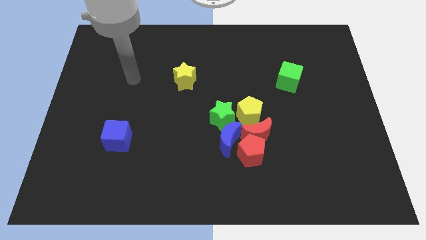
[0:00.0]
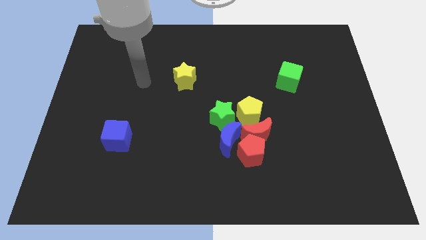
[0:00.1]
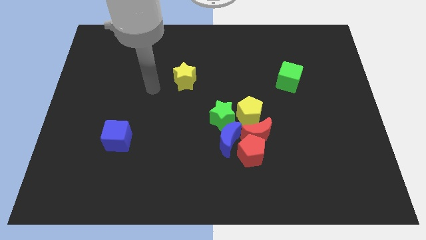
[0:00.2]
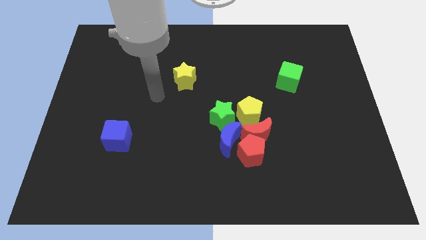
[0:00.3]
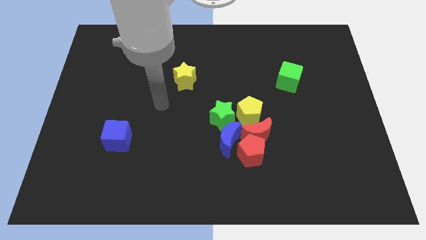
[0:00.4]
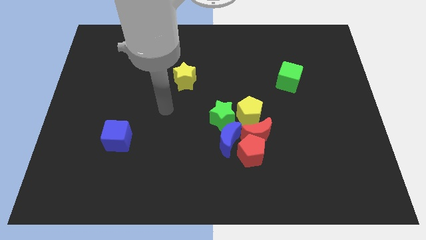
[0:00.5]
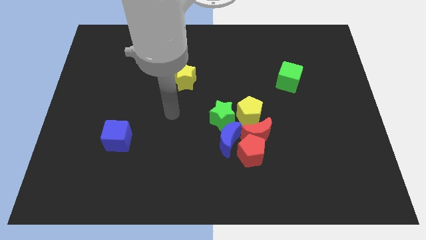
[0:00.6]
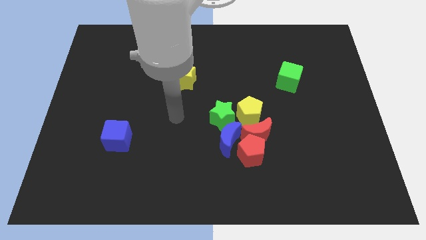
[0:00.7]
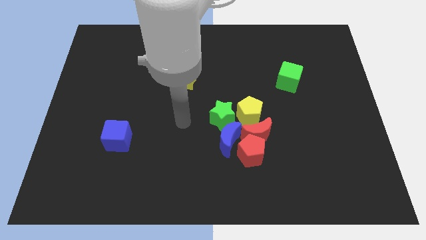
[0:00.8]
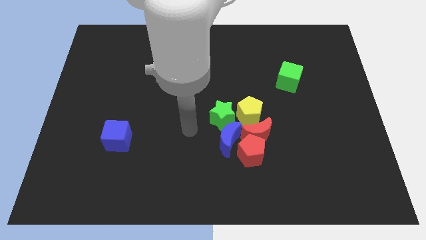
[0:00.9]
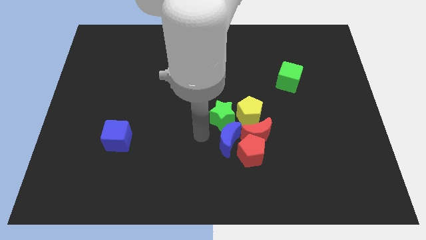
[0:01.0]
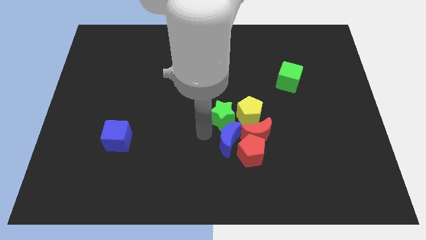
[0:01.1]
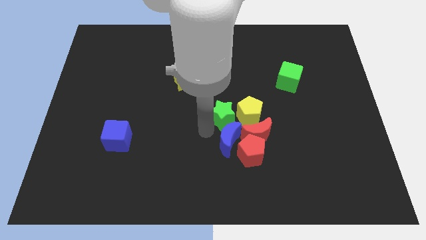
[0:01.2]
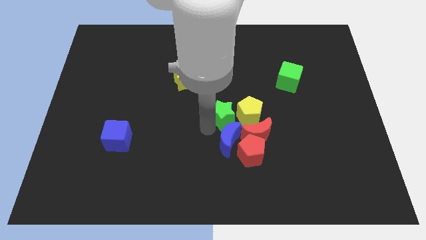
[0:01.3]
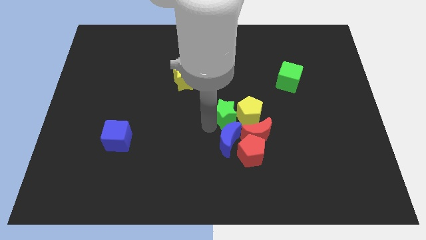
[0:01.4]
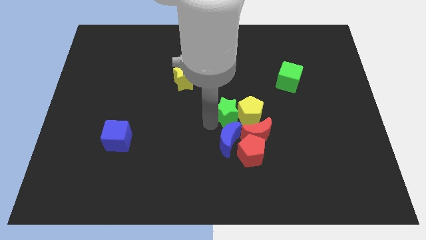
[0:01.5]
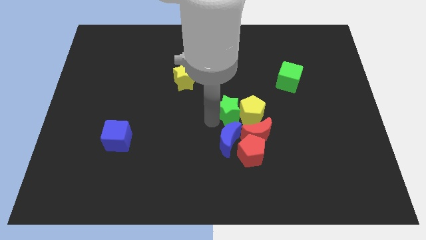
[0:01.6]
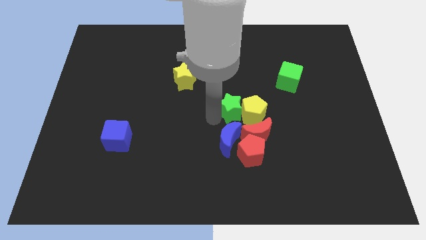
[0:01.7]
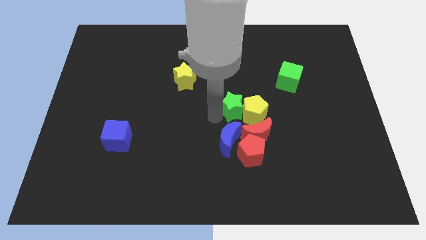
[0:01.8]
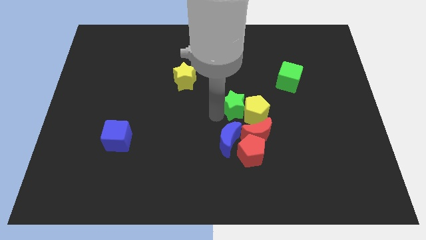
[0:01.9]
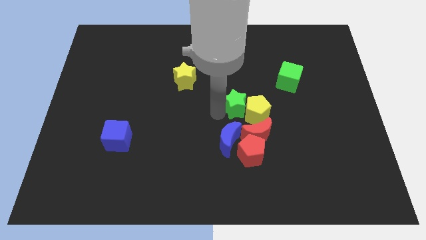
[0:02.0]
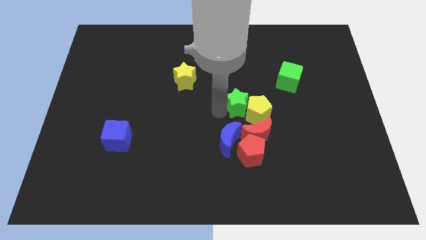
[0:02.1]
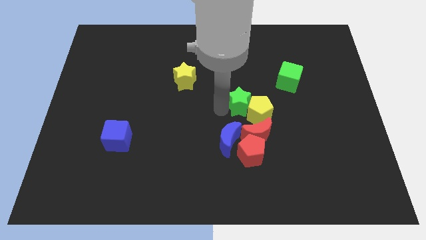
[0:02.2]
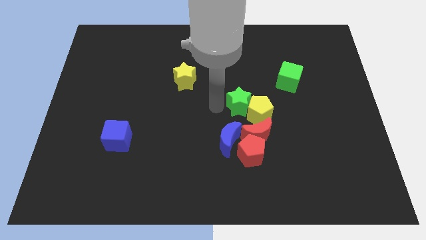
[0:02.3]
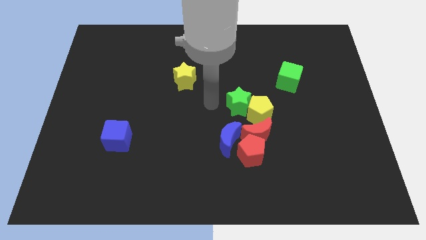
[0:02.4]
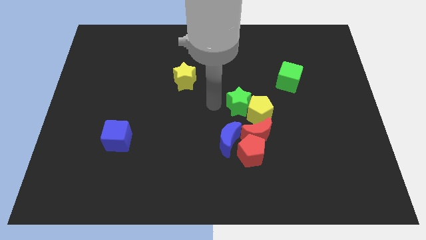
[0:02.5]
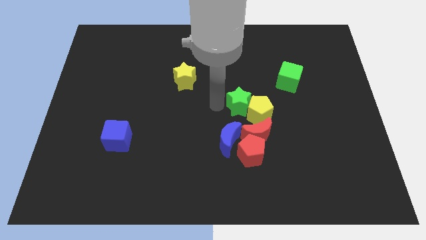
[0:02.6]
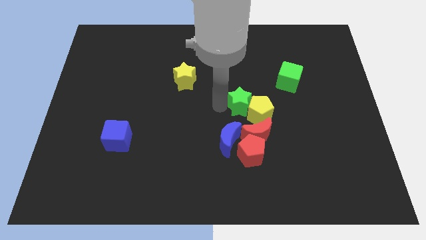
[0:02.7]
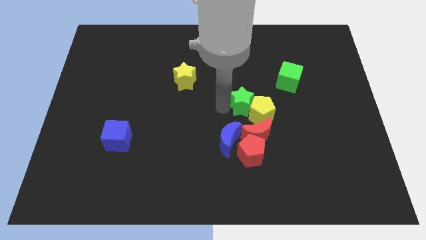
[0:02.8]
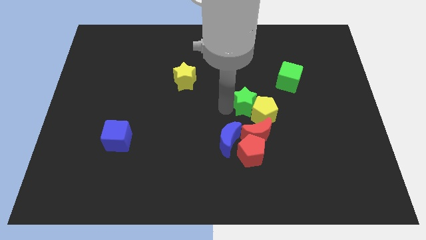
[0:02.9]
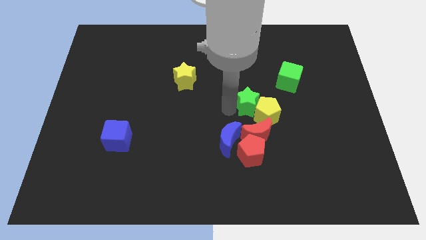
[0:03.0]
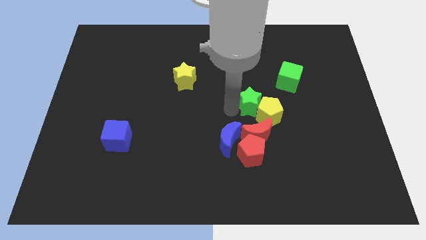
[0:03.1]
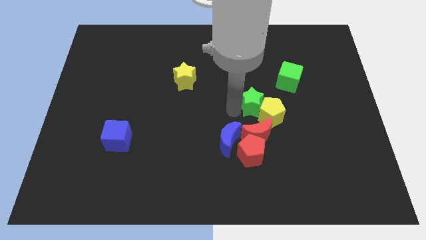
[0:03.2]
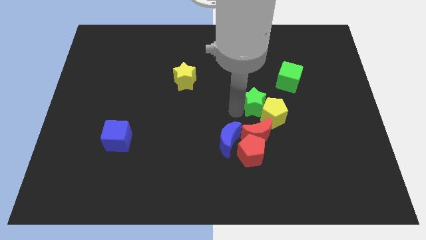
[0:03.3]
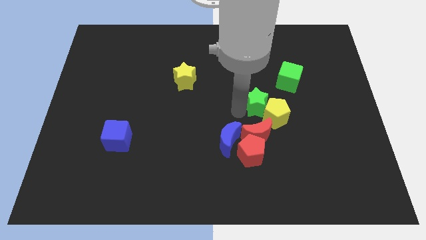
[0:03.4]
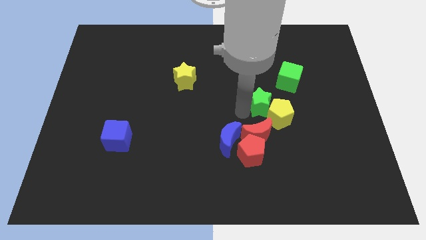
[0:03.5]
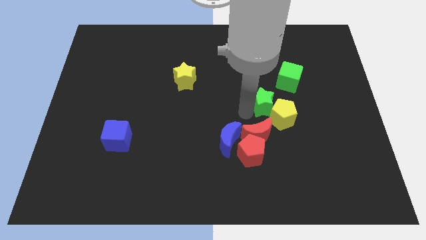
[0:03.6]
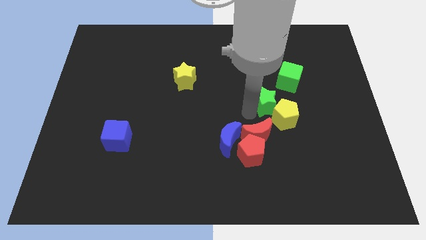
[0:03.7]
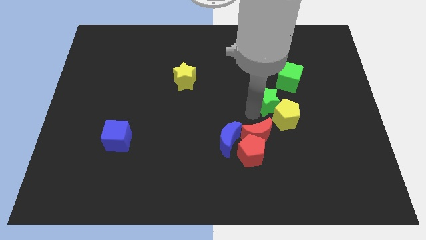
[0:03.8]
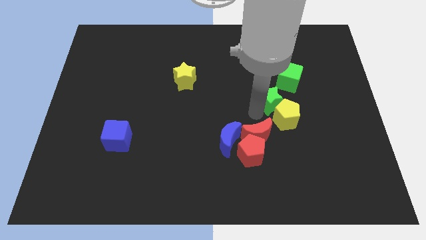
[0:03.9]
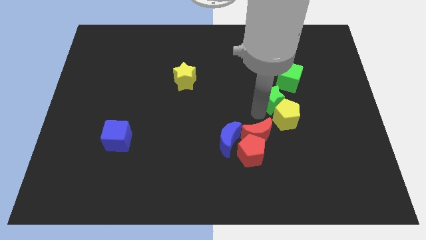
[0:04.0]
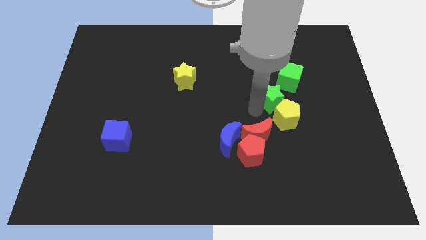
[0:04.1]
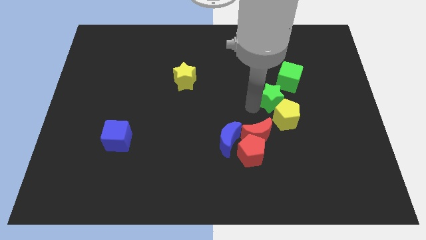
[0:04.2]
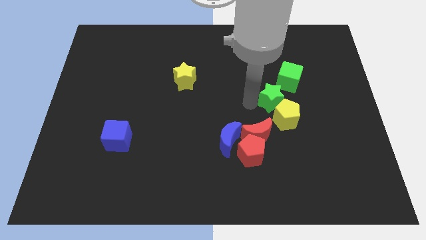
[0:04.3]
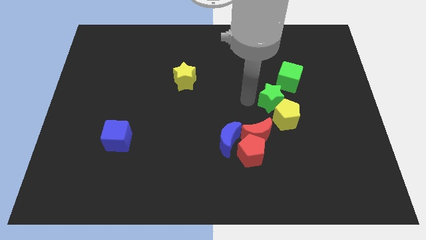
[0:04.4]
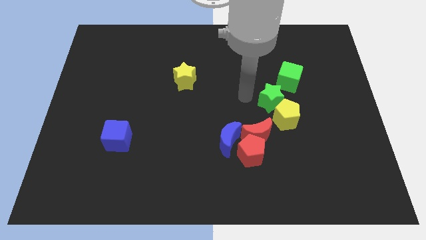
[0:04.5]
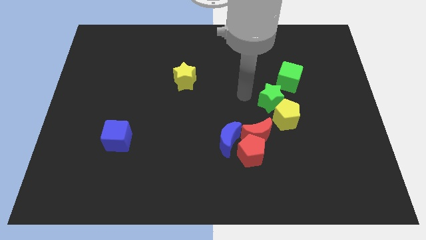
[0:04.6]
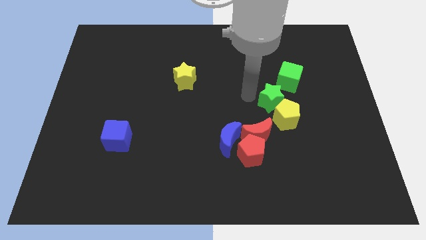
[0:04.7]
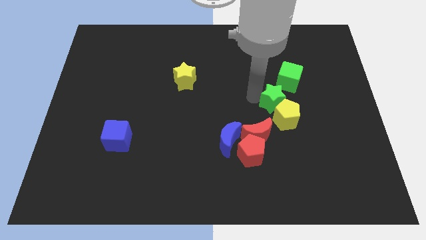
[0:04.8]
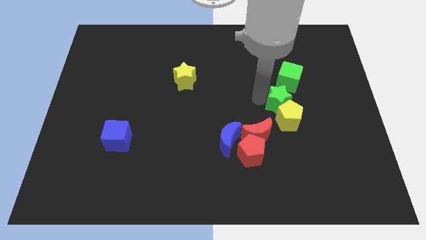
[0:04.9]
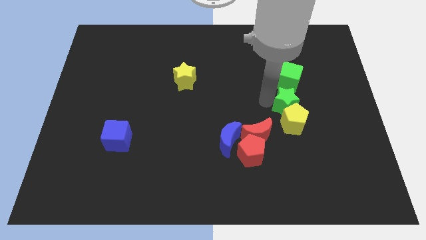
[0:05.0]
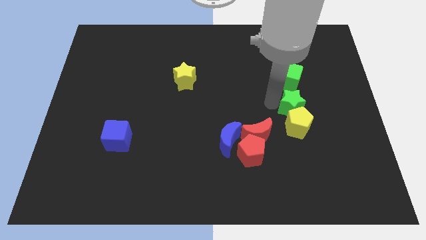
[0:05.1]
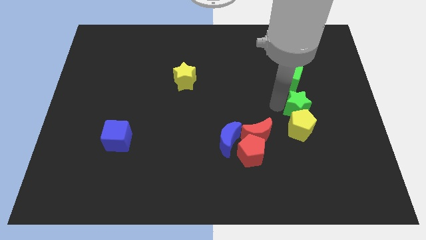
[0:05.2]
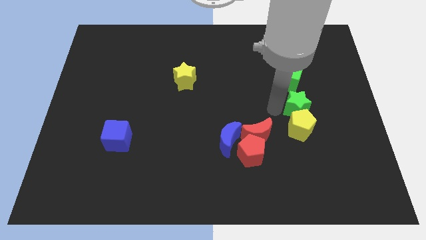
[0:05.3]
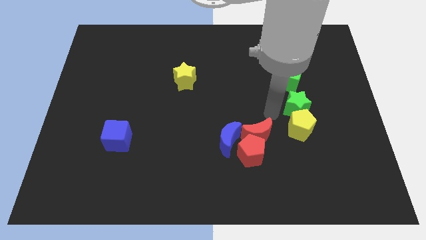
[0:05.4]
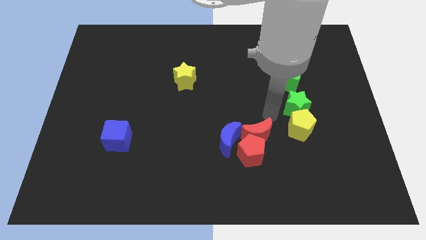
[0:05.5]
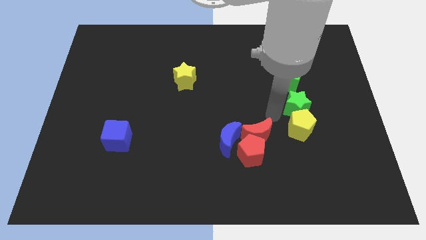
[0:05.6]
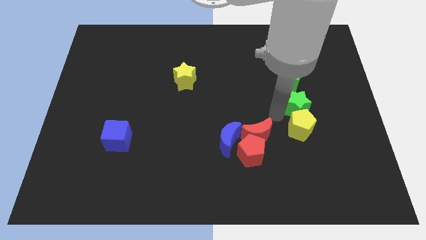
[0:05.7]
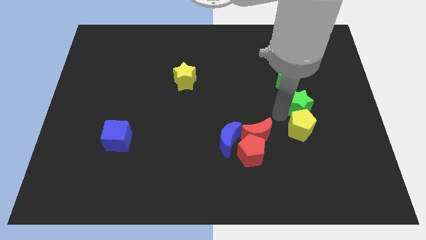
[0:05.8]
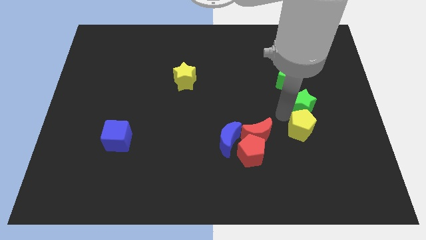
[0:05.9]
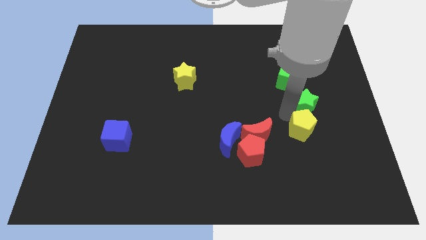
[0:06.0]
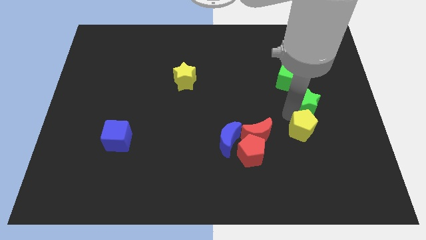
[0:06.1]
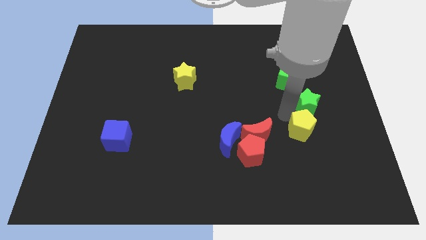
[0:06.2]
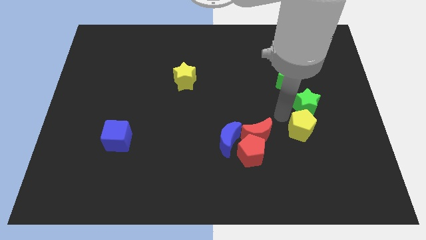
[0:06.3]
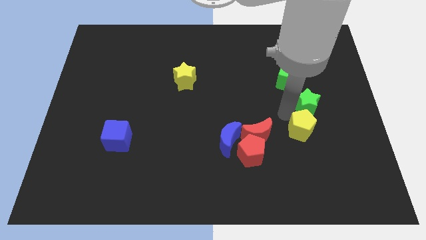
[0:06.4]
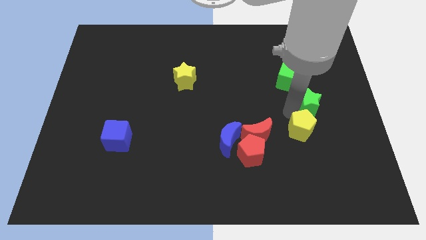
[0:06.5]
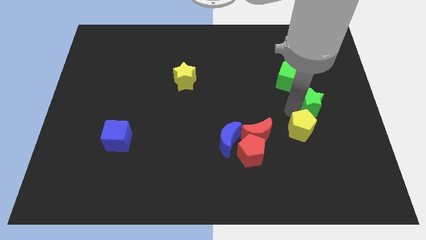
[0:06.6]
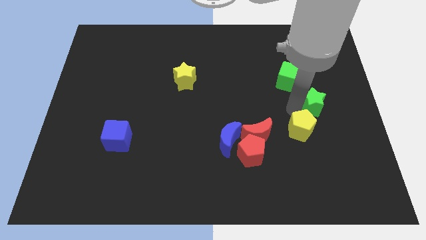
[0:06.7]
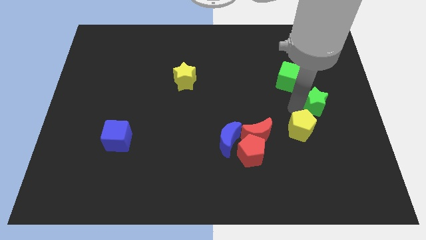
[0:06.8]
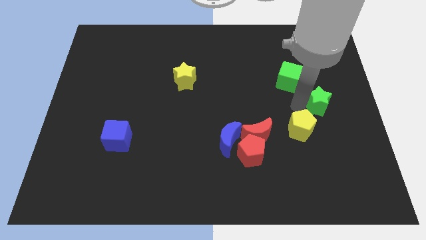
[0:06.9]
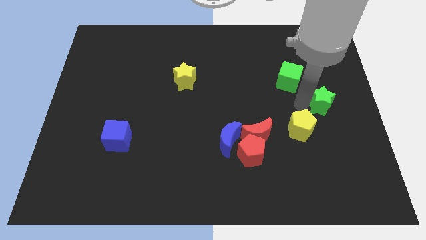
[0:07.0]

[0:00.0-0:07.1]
move the green star to the right side of the board
